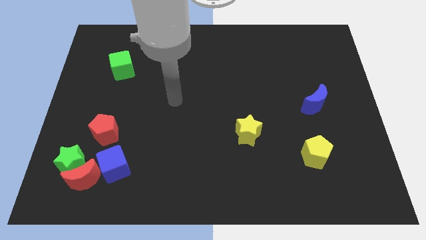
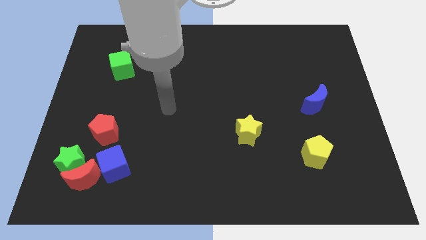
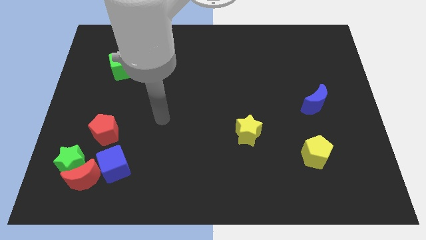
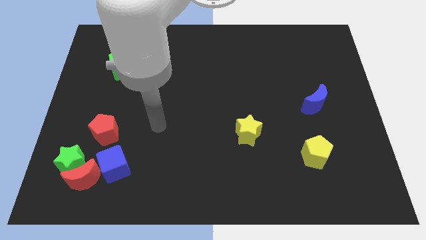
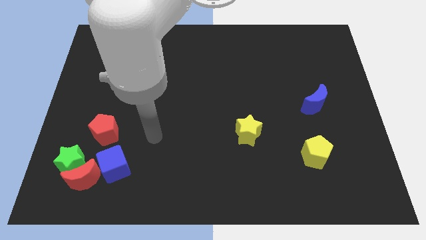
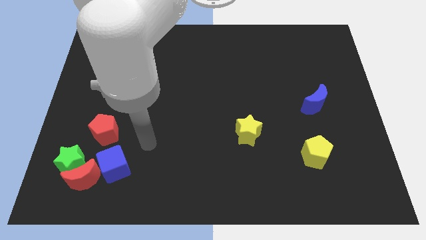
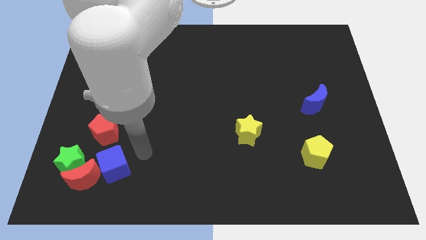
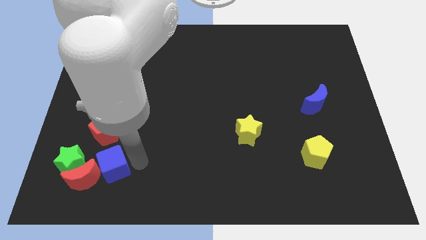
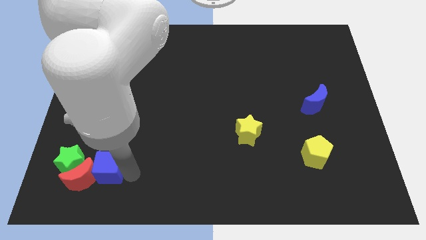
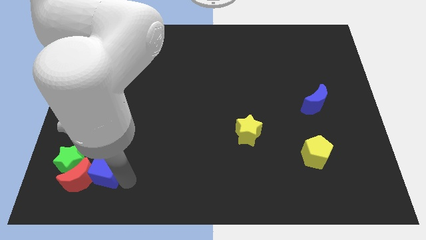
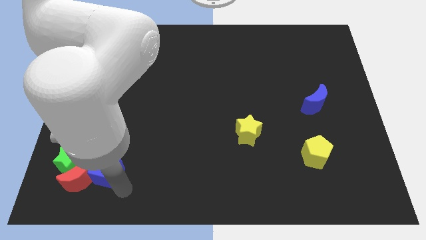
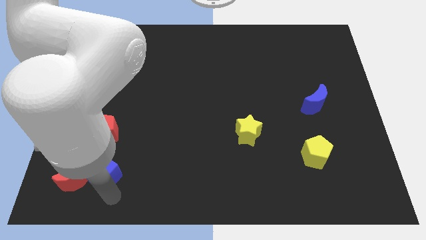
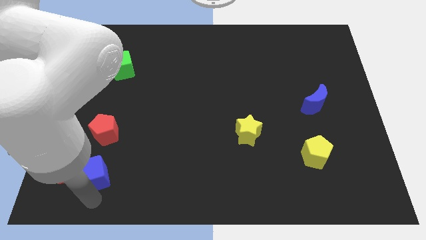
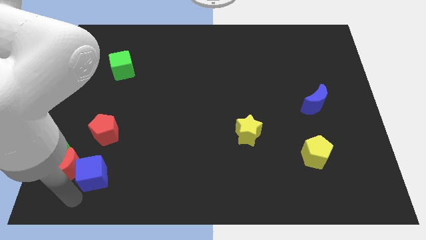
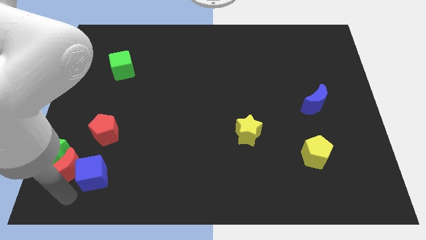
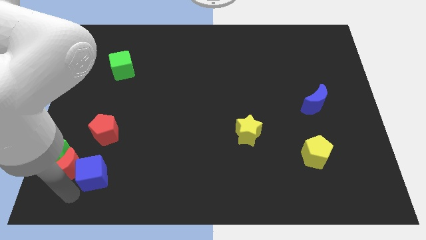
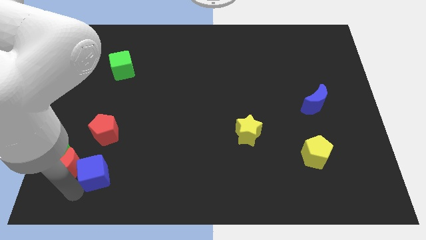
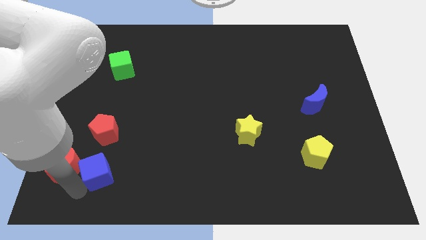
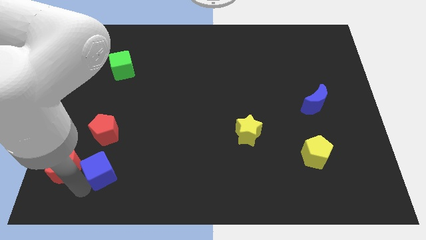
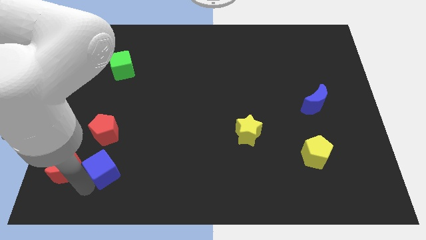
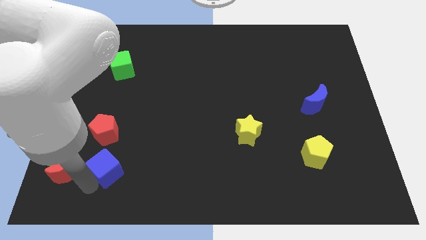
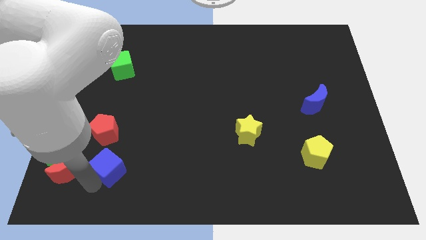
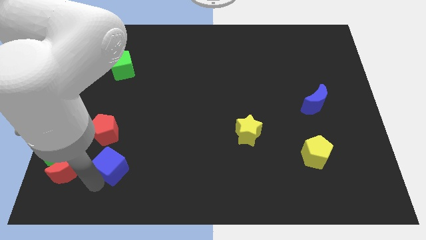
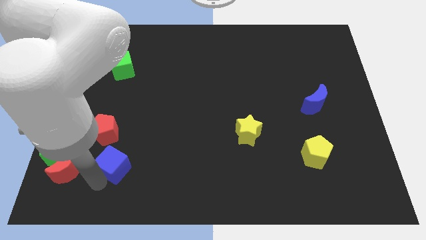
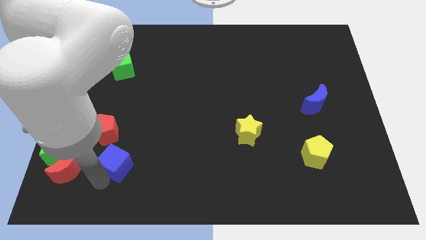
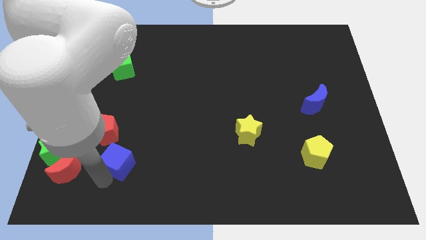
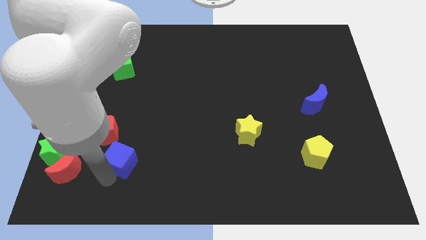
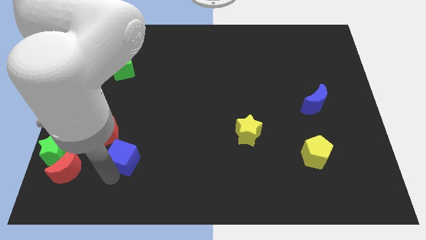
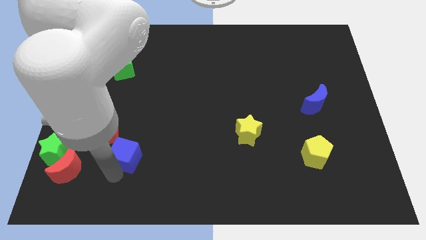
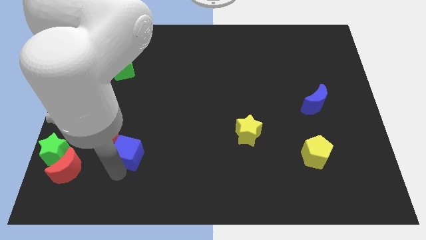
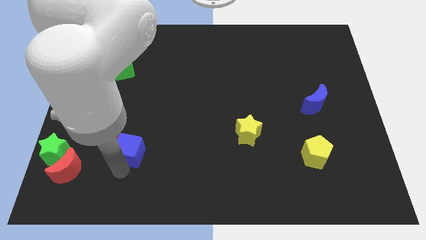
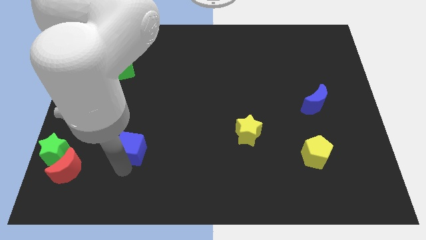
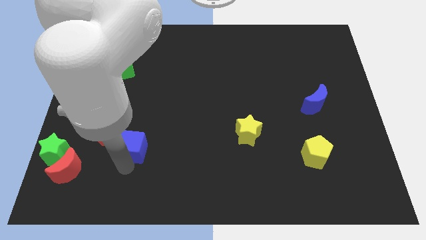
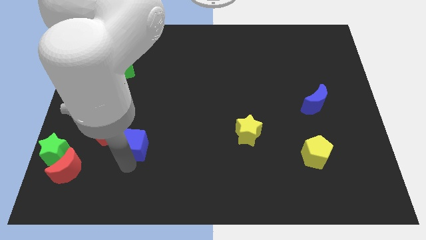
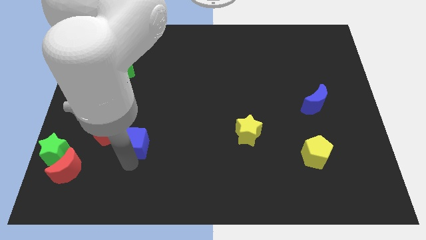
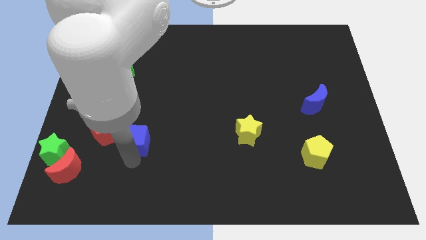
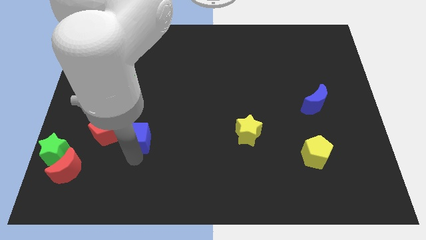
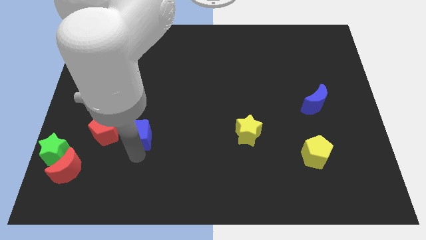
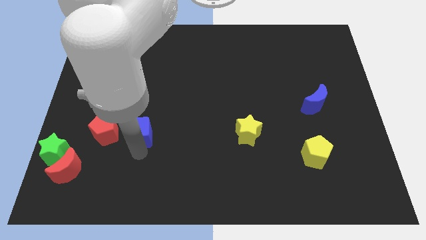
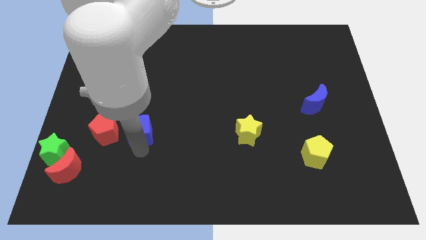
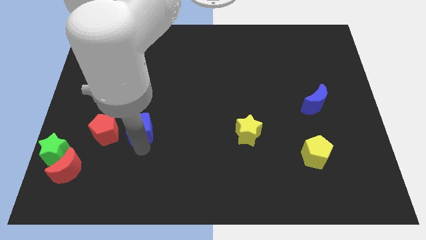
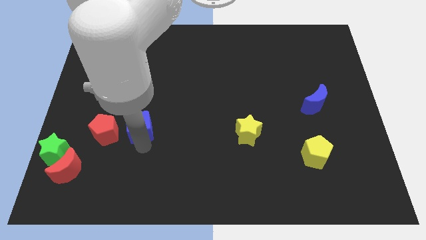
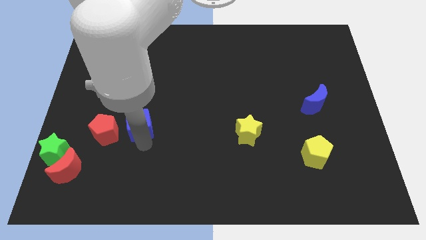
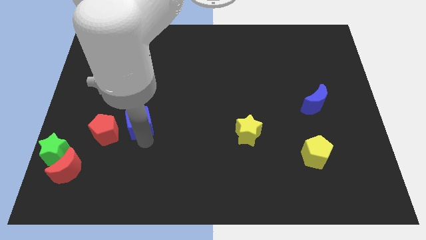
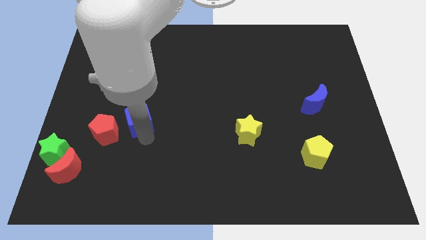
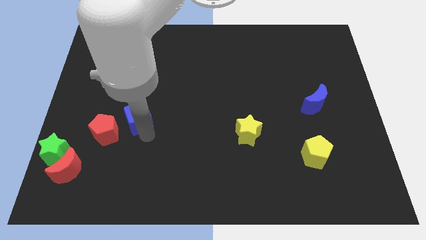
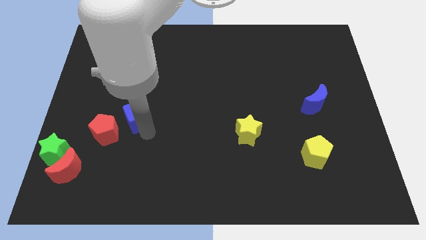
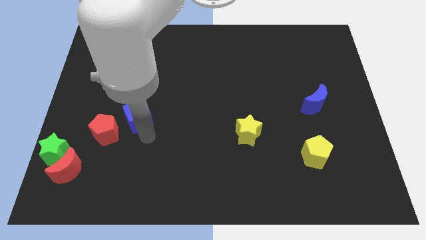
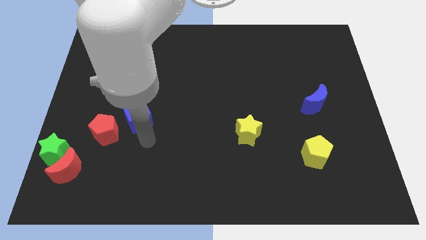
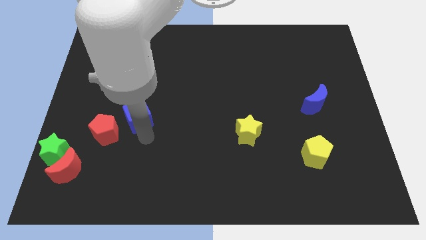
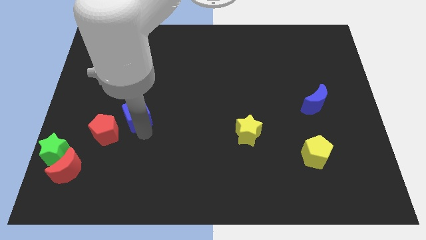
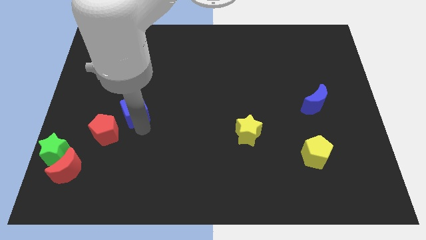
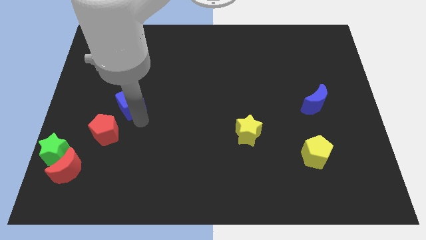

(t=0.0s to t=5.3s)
move the blue cube to the top side of the red pentagon

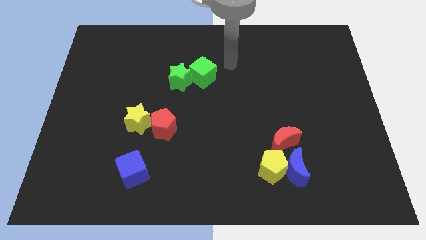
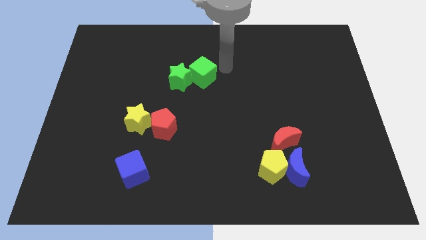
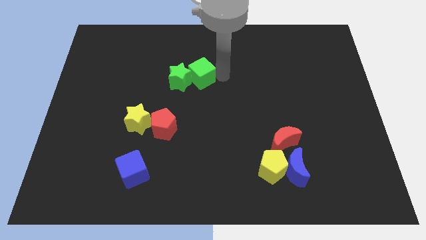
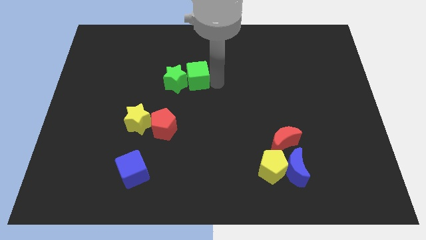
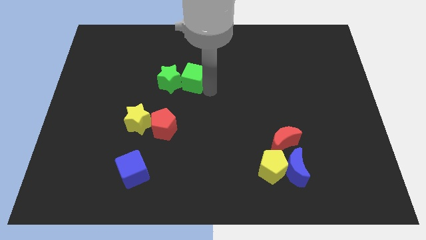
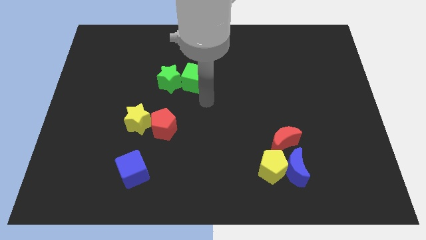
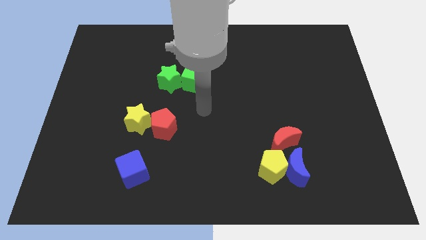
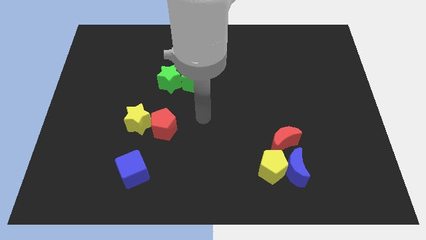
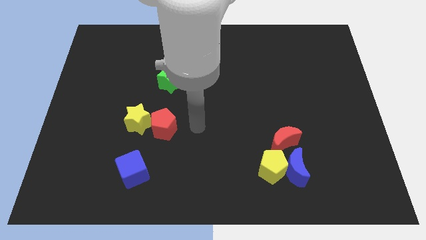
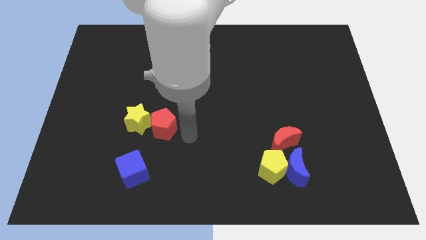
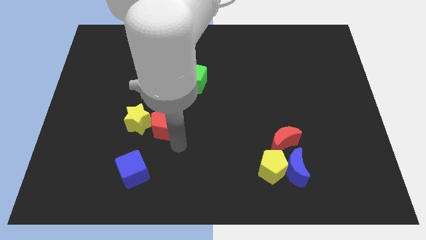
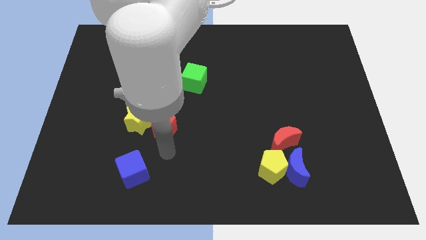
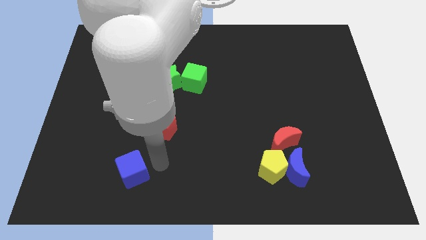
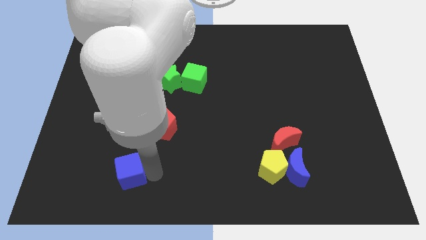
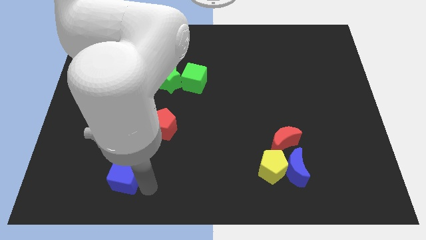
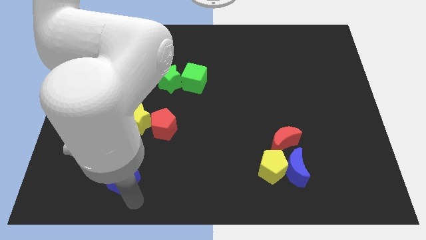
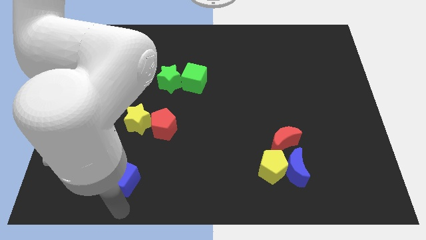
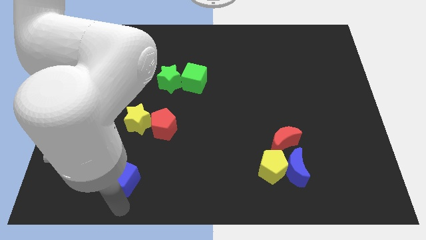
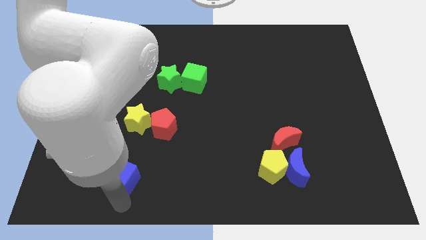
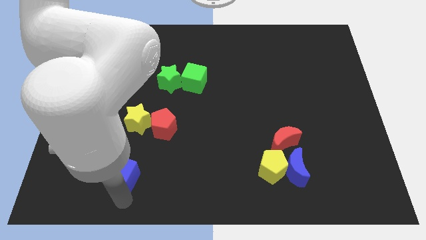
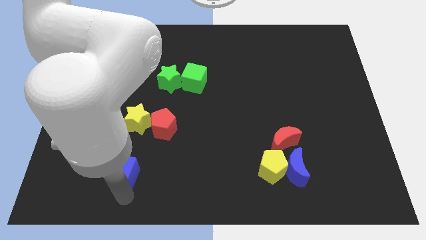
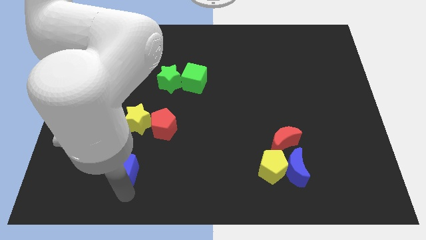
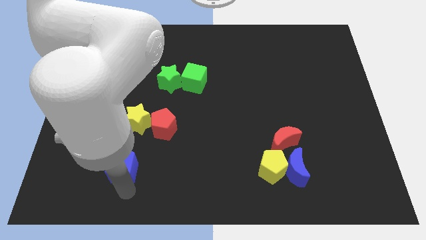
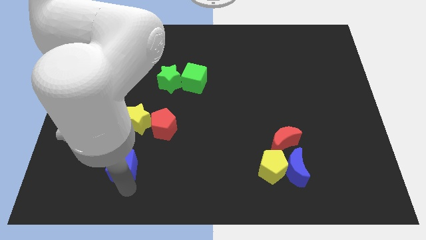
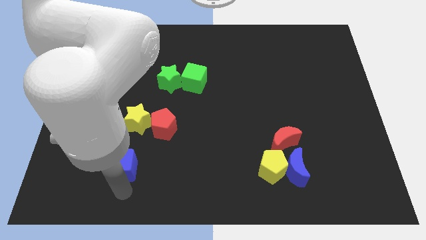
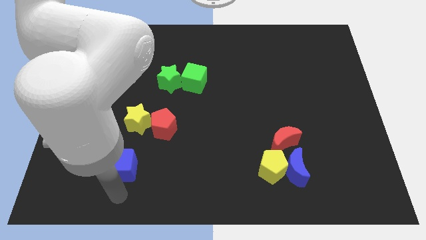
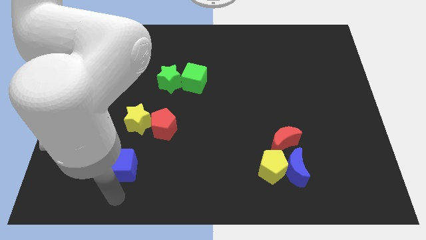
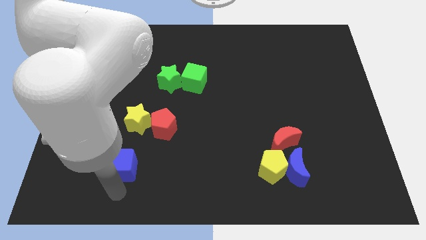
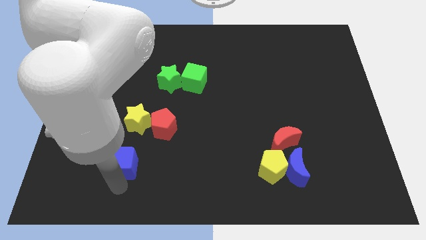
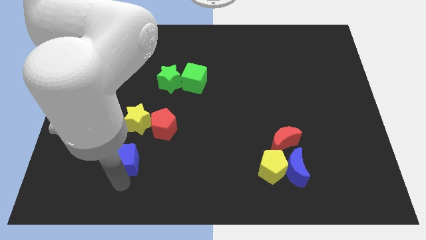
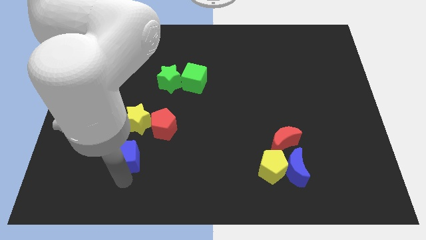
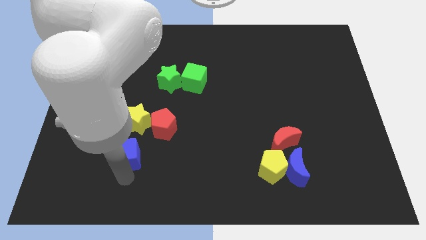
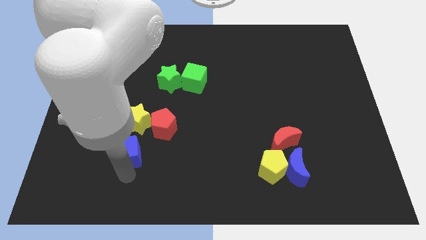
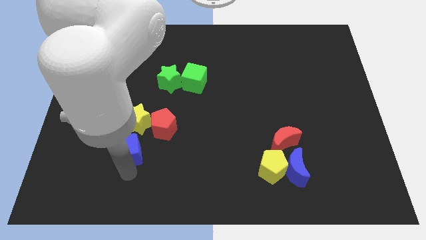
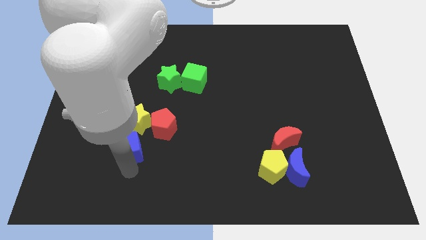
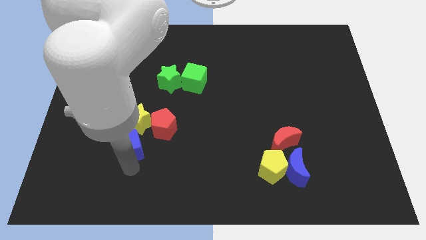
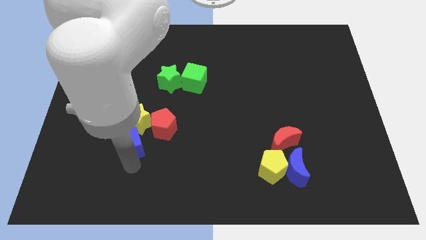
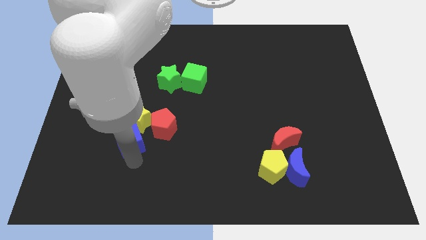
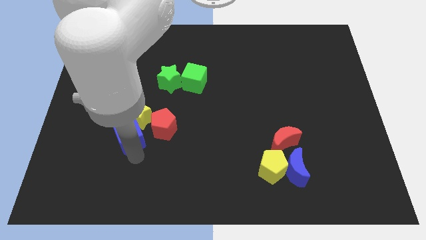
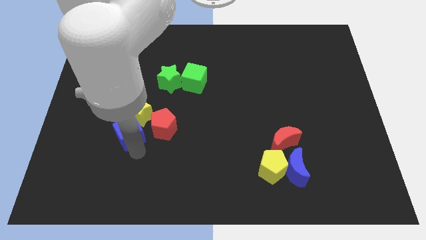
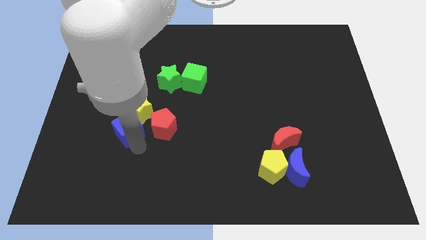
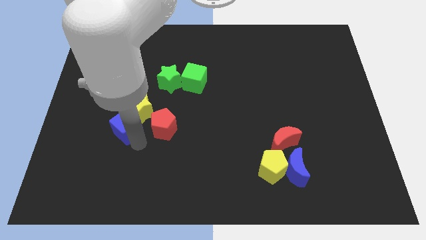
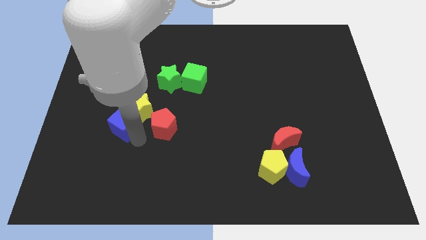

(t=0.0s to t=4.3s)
put the blue cube just left of the yellow star
